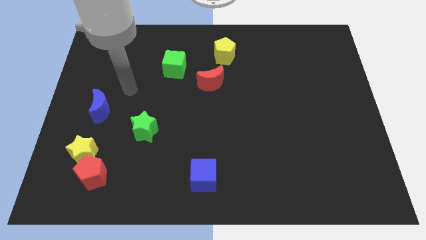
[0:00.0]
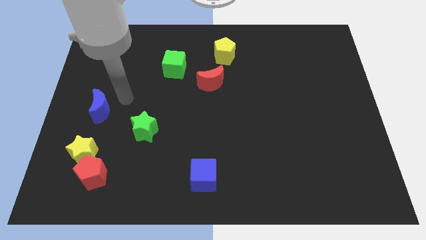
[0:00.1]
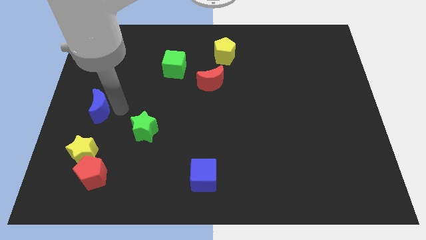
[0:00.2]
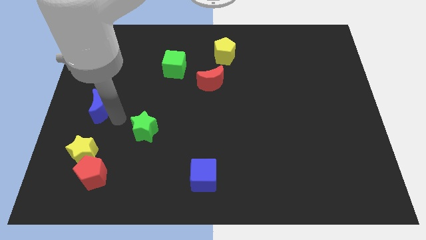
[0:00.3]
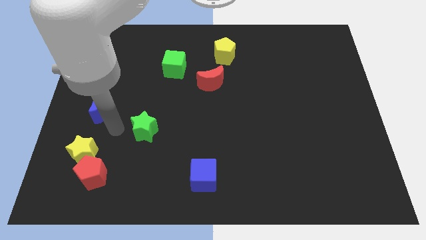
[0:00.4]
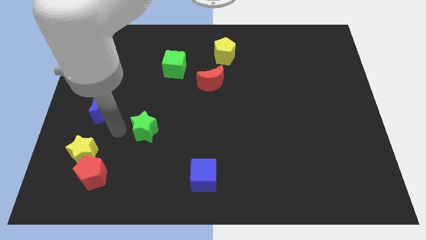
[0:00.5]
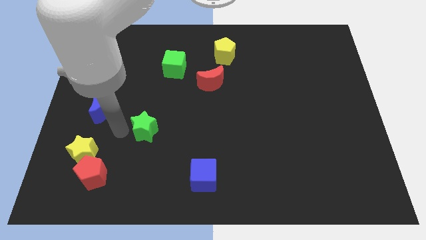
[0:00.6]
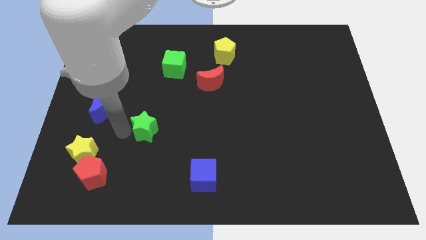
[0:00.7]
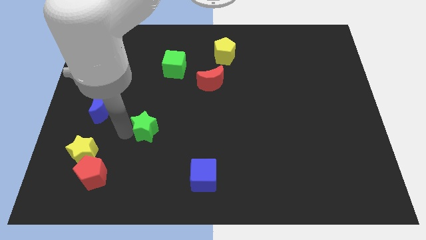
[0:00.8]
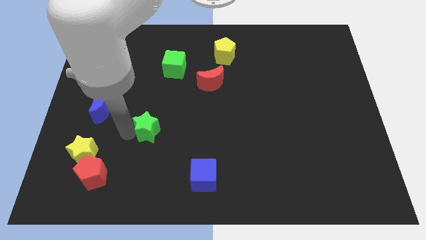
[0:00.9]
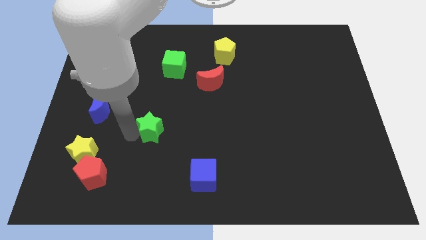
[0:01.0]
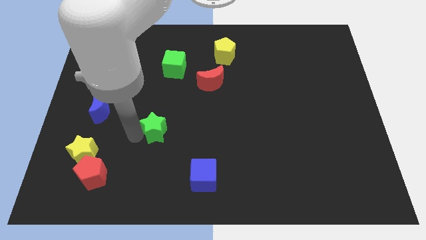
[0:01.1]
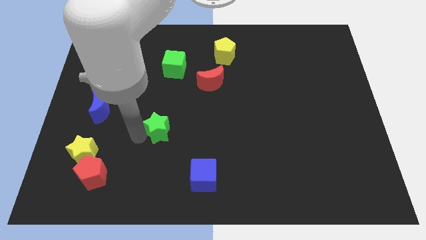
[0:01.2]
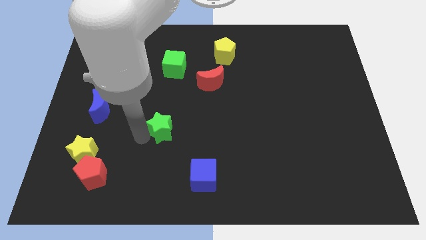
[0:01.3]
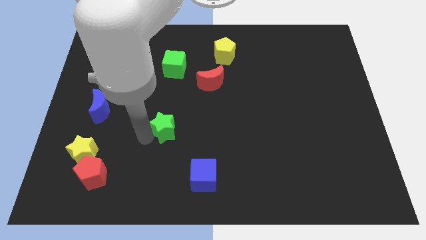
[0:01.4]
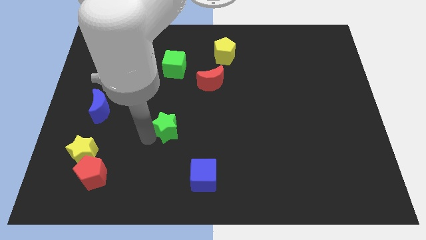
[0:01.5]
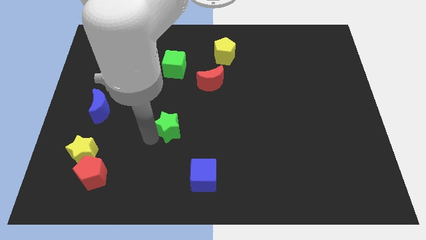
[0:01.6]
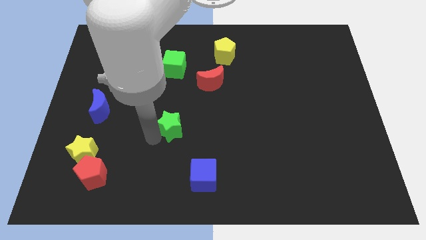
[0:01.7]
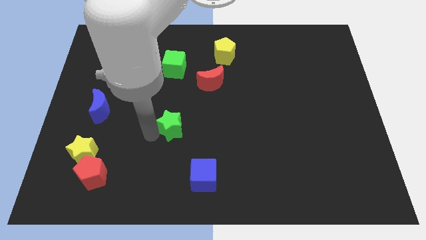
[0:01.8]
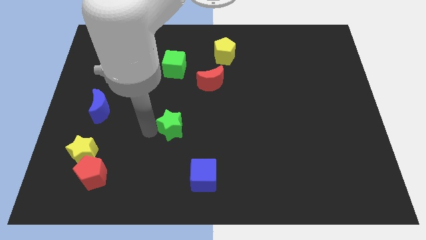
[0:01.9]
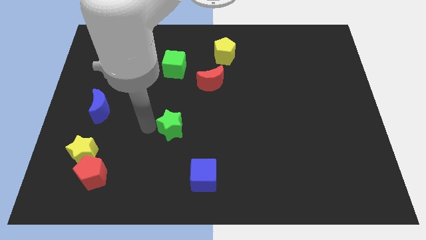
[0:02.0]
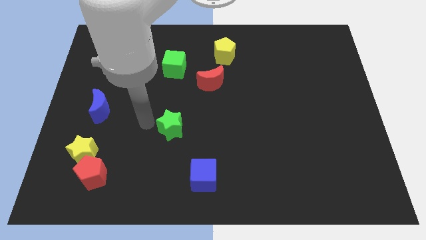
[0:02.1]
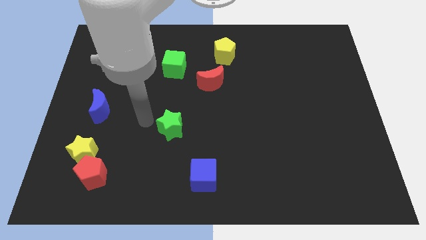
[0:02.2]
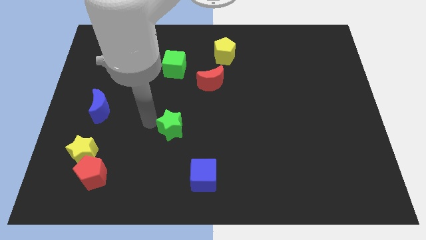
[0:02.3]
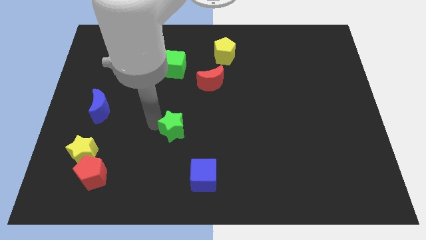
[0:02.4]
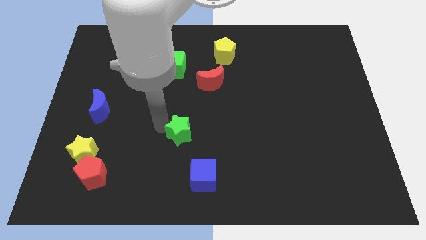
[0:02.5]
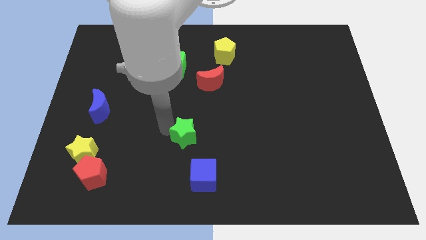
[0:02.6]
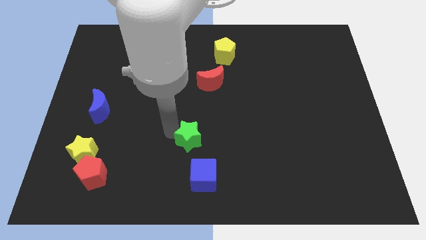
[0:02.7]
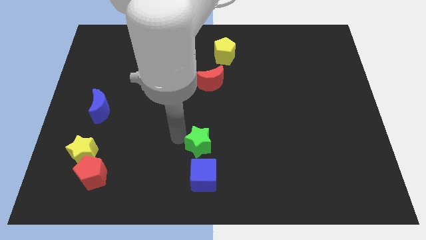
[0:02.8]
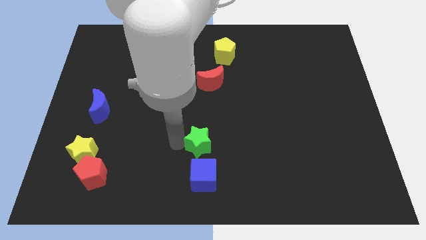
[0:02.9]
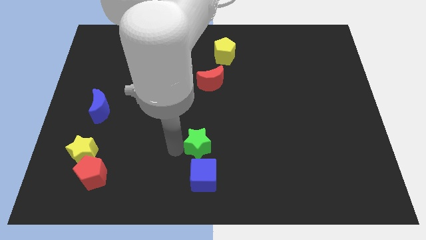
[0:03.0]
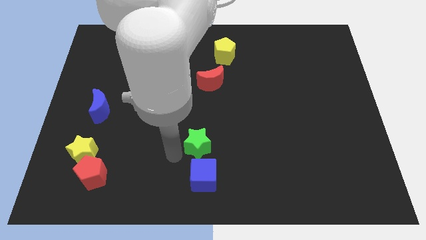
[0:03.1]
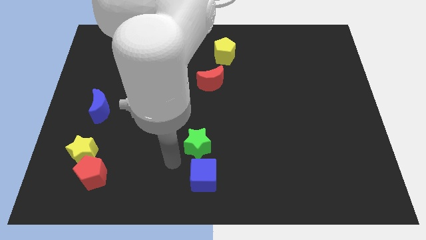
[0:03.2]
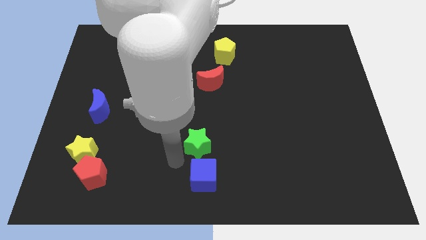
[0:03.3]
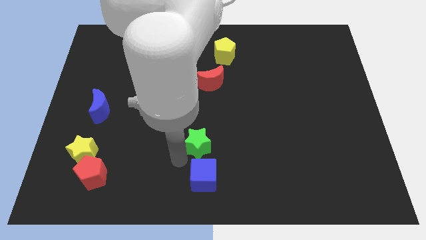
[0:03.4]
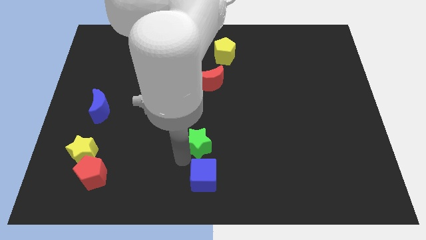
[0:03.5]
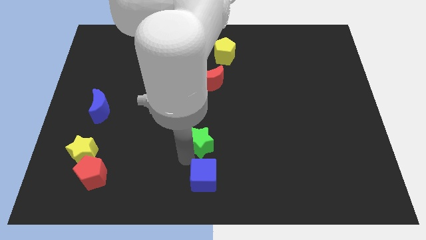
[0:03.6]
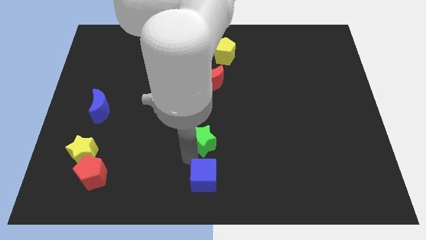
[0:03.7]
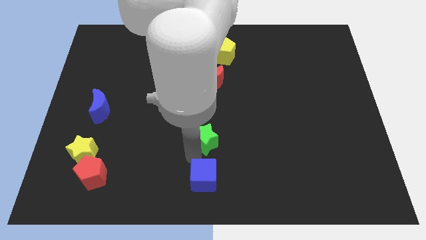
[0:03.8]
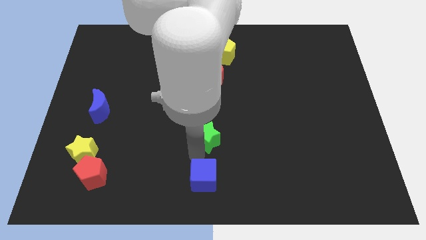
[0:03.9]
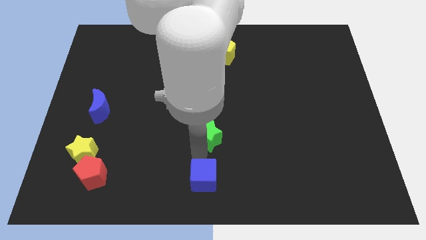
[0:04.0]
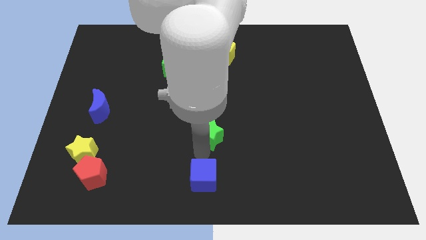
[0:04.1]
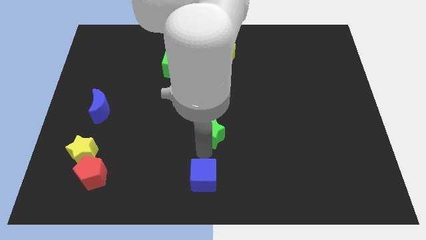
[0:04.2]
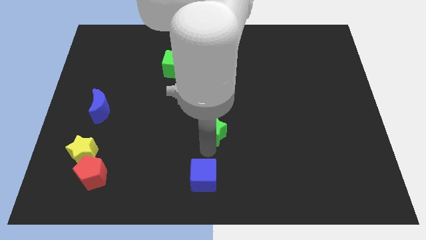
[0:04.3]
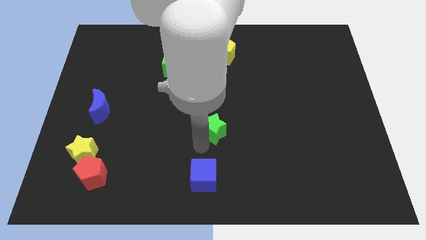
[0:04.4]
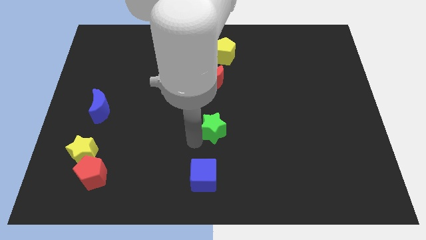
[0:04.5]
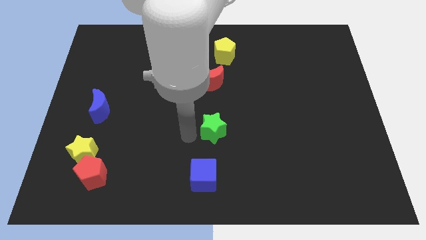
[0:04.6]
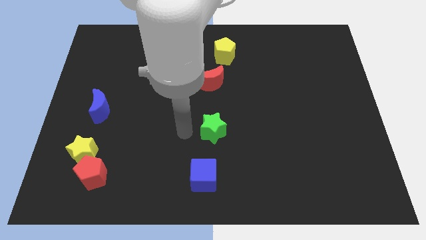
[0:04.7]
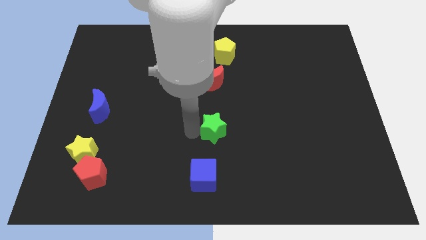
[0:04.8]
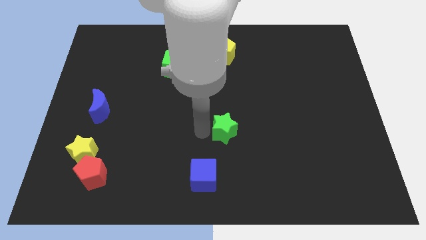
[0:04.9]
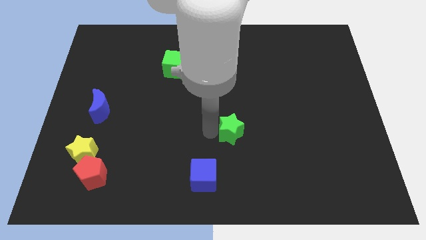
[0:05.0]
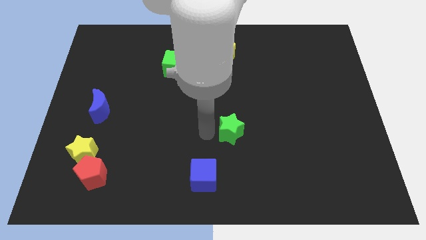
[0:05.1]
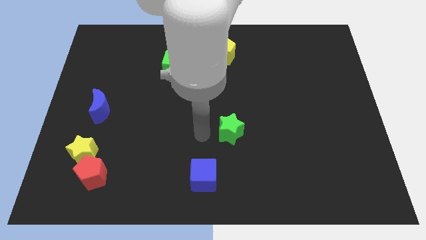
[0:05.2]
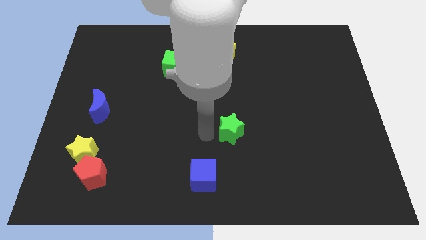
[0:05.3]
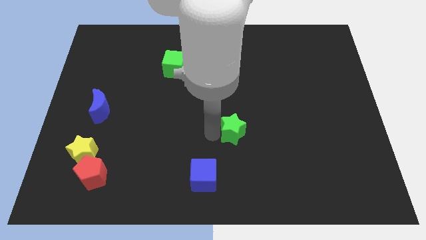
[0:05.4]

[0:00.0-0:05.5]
slide the green star right

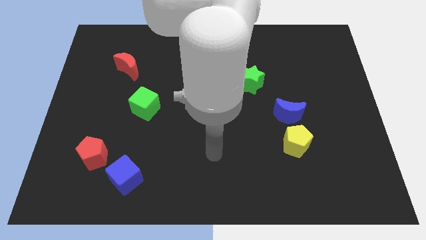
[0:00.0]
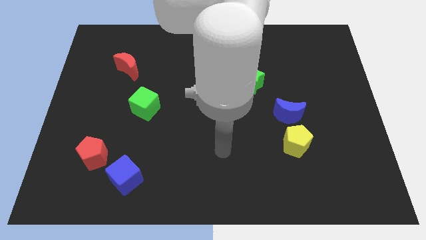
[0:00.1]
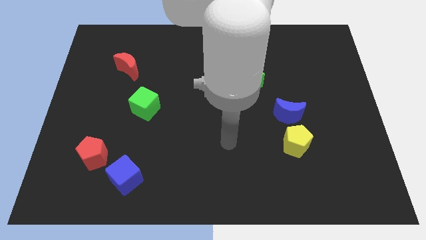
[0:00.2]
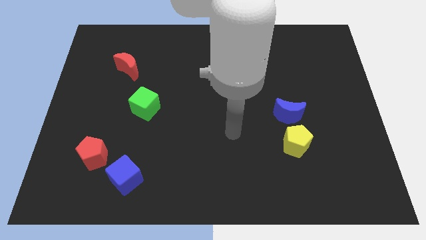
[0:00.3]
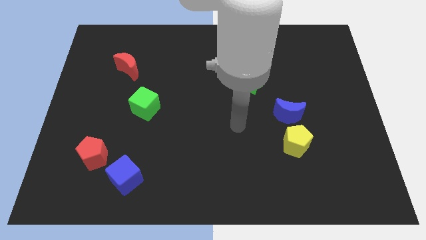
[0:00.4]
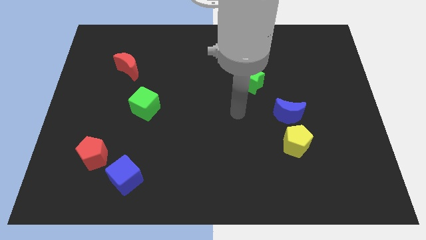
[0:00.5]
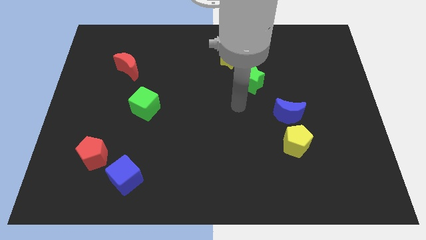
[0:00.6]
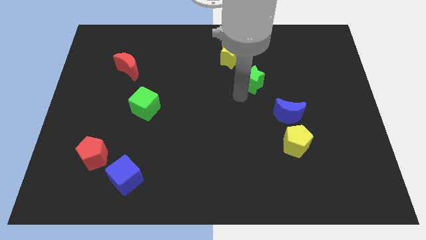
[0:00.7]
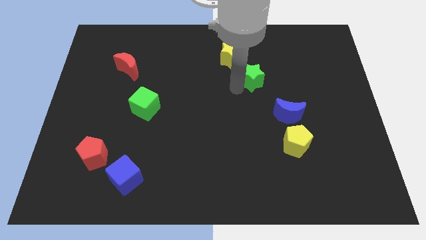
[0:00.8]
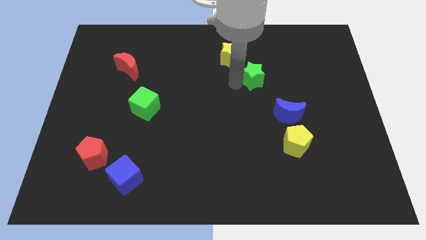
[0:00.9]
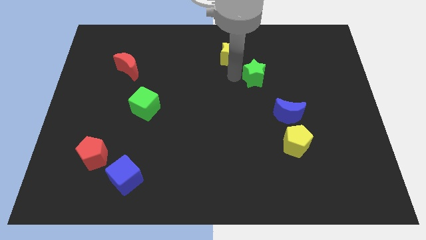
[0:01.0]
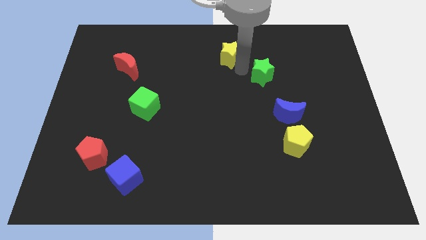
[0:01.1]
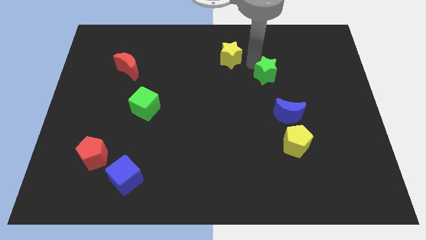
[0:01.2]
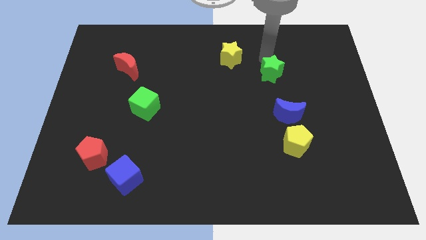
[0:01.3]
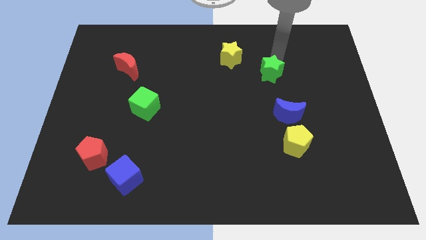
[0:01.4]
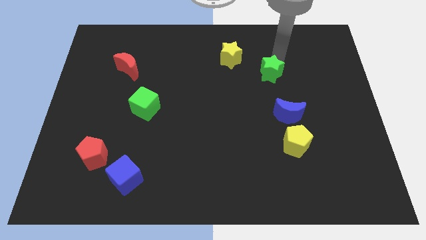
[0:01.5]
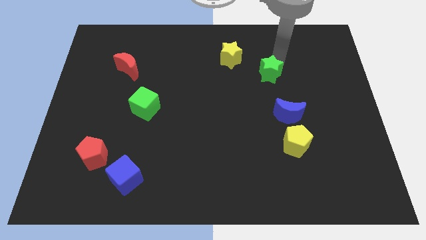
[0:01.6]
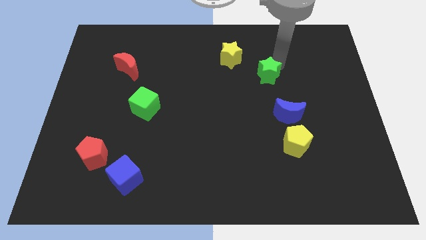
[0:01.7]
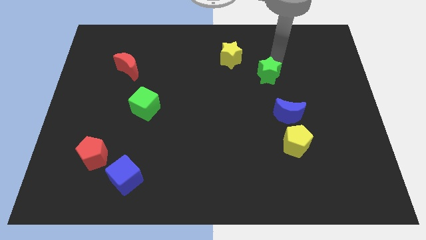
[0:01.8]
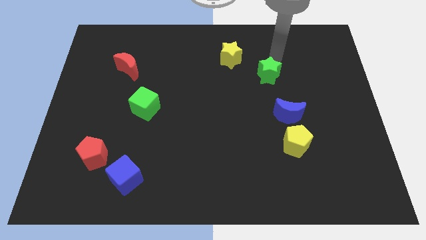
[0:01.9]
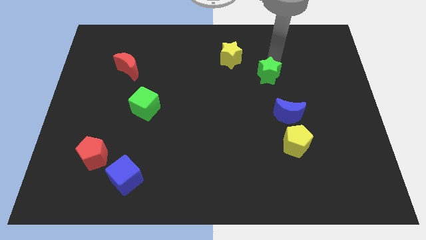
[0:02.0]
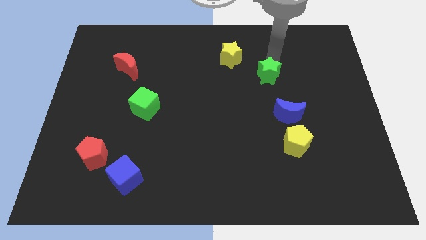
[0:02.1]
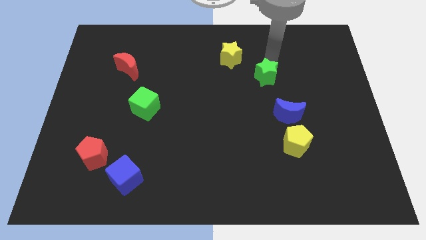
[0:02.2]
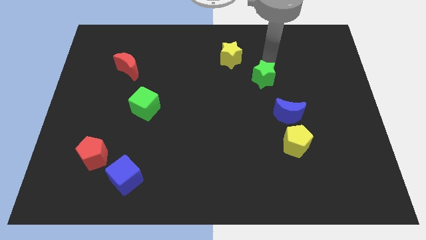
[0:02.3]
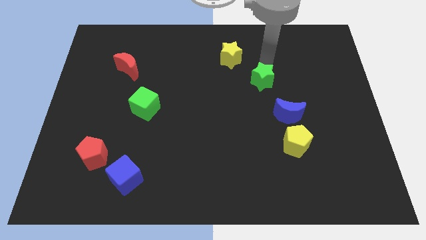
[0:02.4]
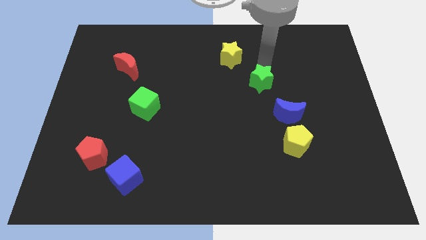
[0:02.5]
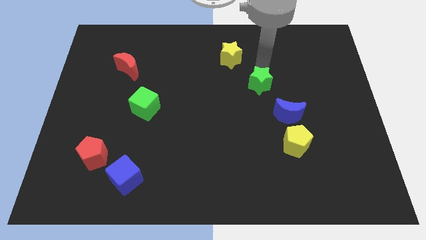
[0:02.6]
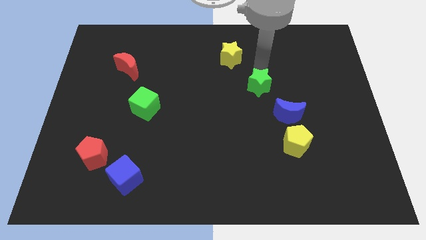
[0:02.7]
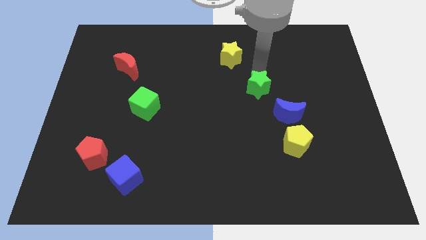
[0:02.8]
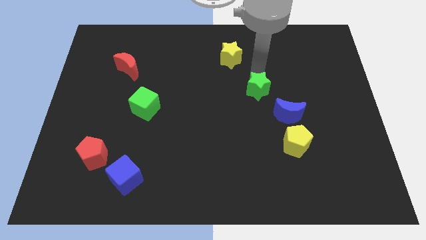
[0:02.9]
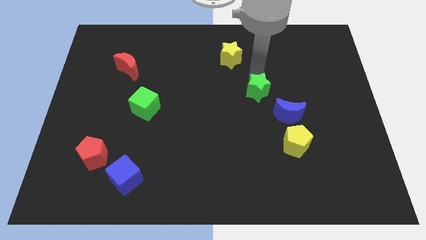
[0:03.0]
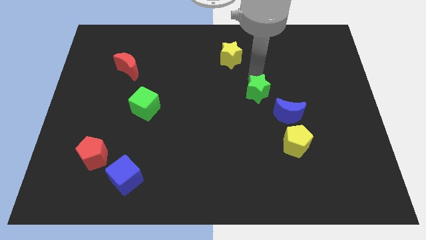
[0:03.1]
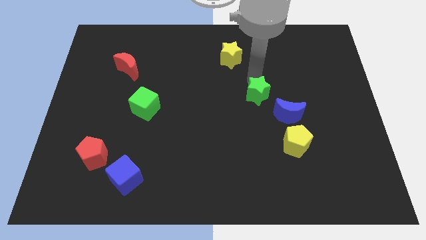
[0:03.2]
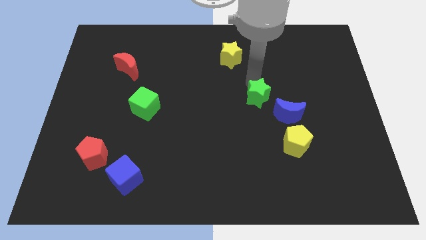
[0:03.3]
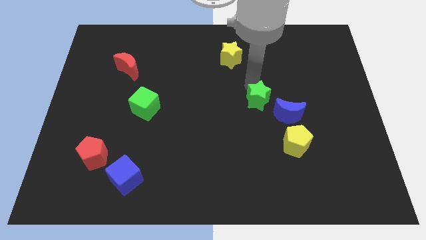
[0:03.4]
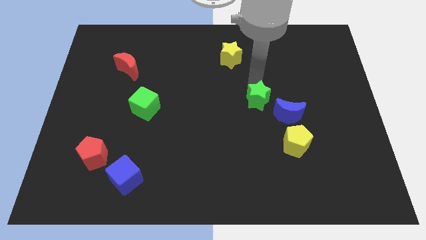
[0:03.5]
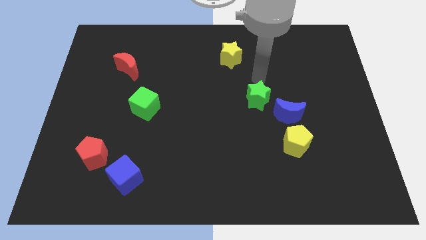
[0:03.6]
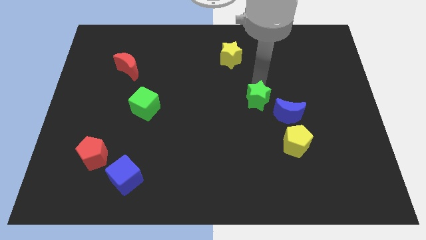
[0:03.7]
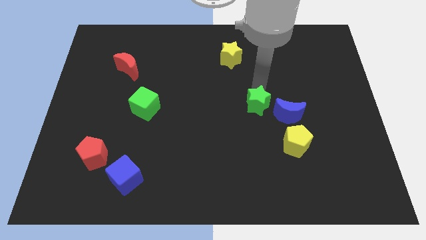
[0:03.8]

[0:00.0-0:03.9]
push the green star down a little bit
